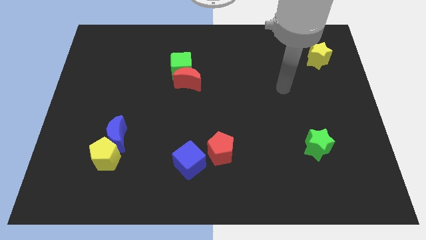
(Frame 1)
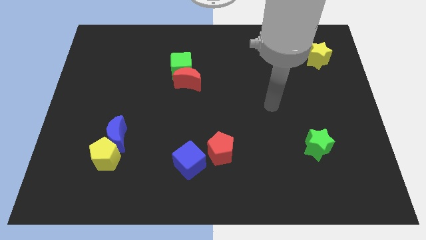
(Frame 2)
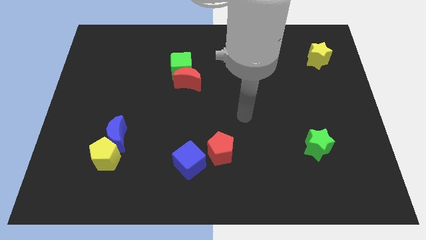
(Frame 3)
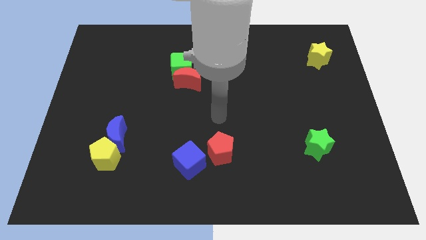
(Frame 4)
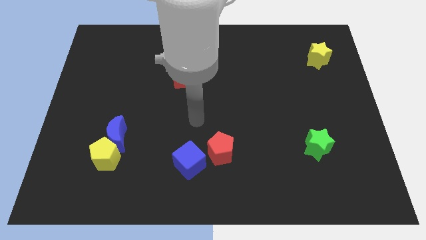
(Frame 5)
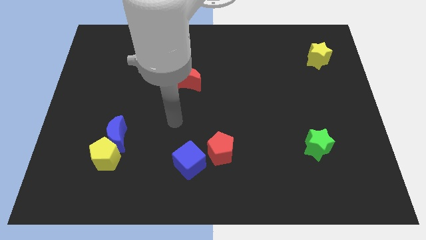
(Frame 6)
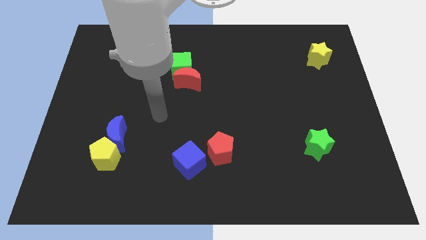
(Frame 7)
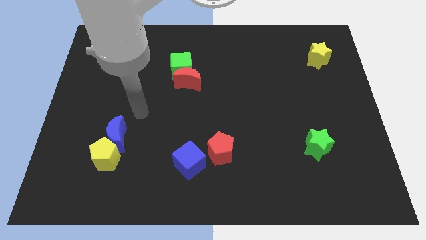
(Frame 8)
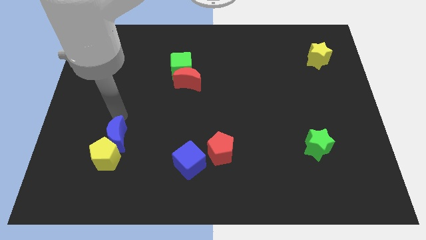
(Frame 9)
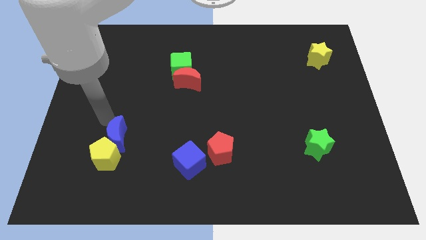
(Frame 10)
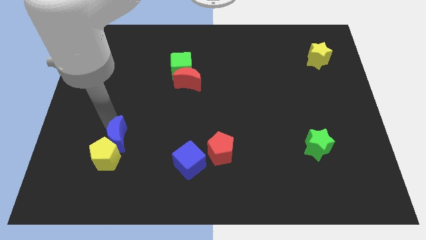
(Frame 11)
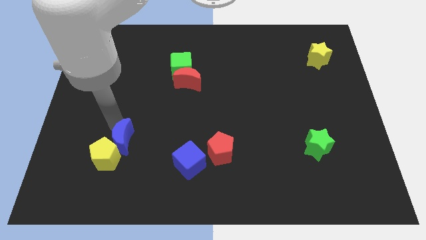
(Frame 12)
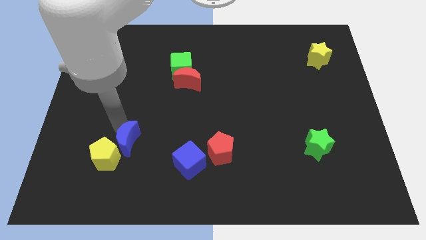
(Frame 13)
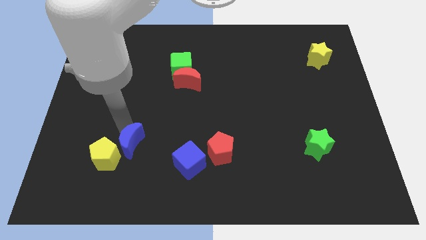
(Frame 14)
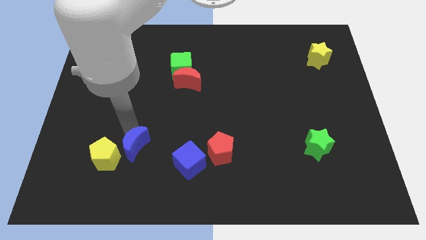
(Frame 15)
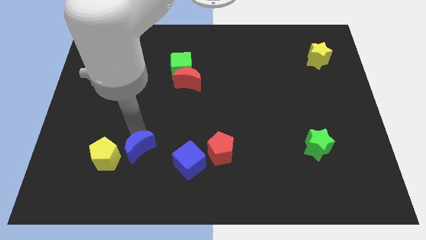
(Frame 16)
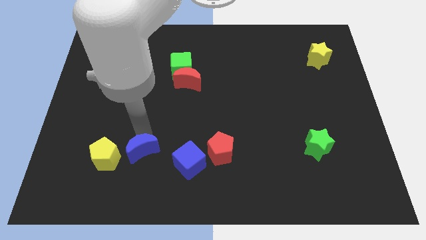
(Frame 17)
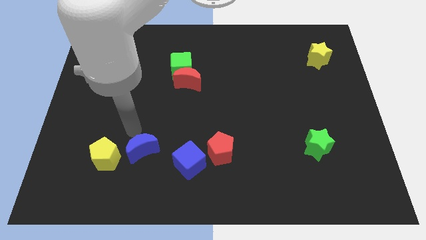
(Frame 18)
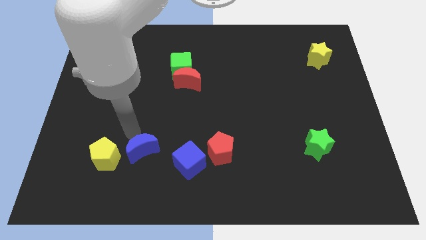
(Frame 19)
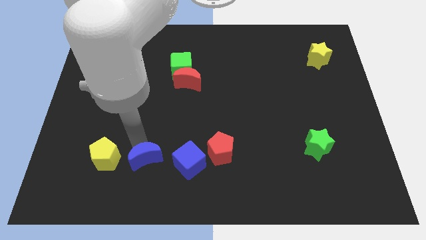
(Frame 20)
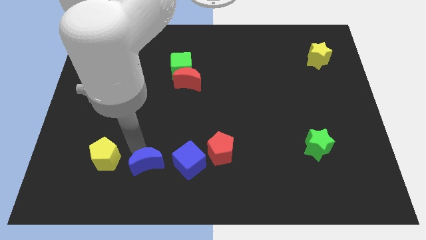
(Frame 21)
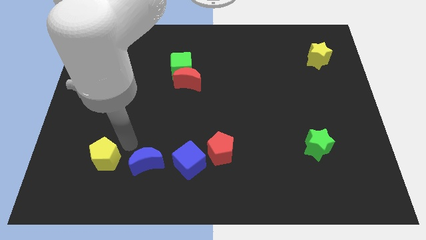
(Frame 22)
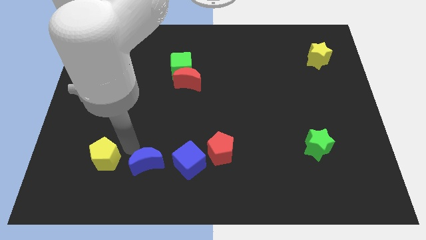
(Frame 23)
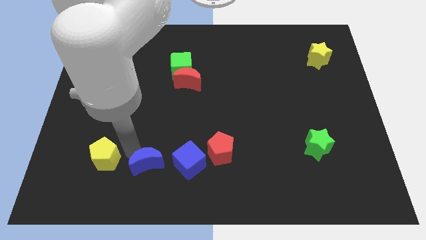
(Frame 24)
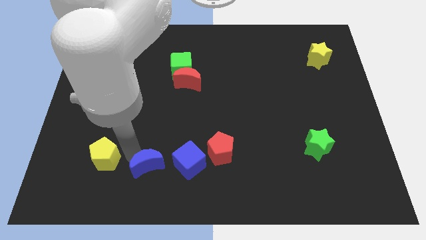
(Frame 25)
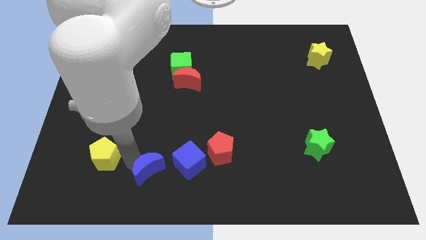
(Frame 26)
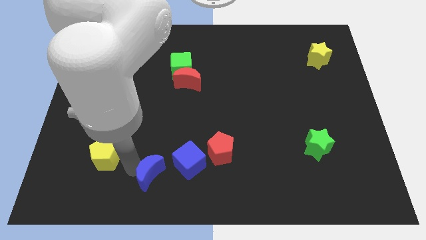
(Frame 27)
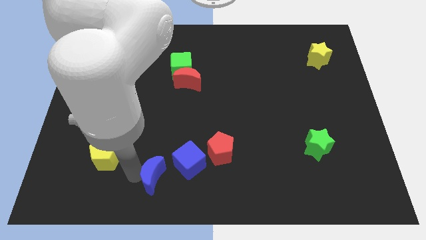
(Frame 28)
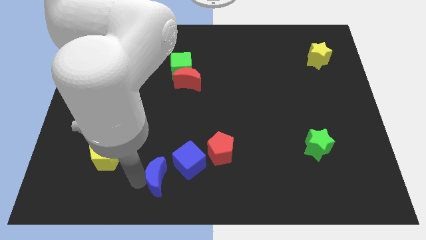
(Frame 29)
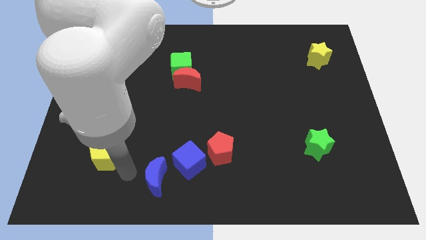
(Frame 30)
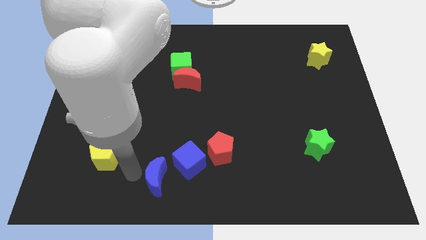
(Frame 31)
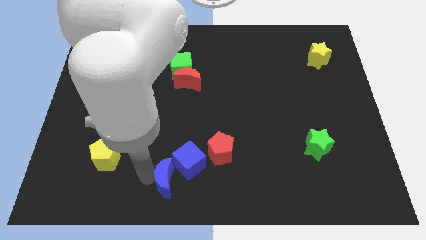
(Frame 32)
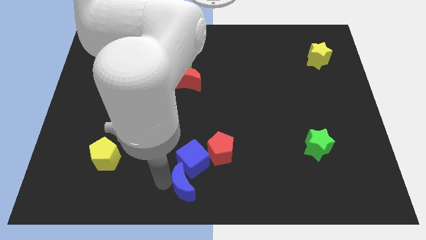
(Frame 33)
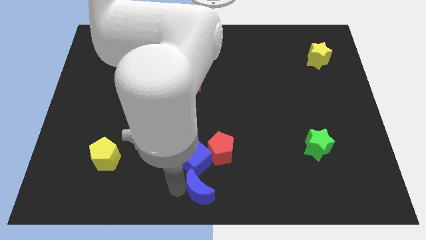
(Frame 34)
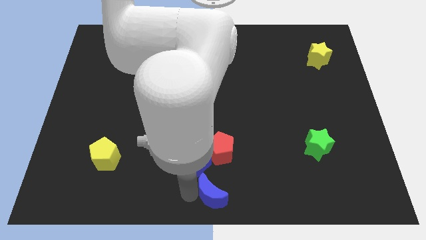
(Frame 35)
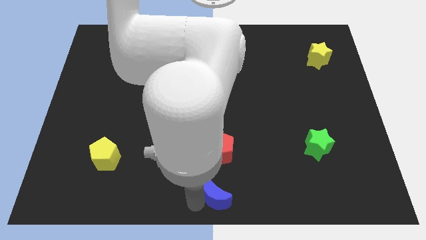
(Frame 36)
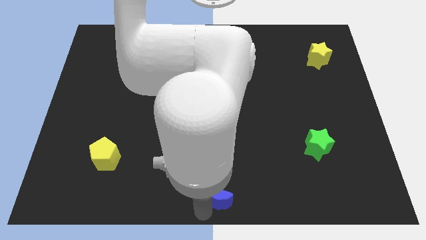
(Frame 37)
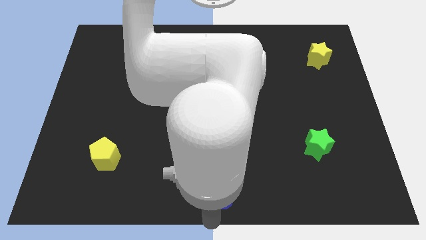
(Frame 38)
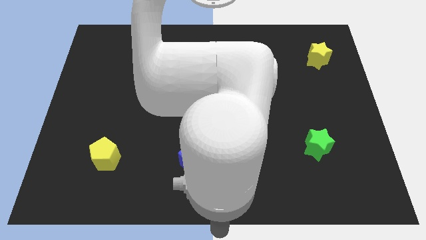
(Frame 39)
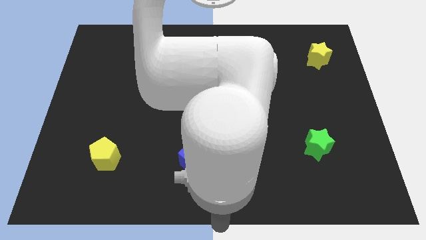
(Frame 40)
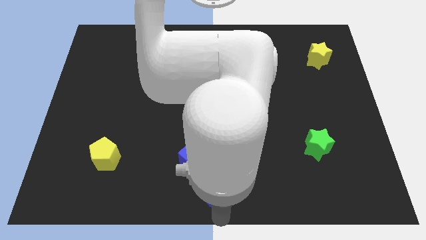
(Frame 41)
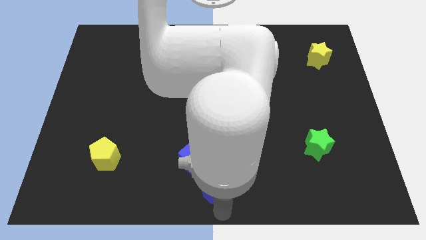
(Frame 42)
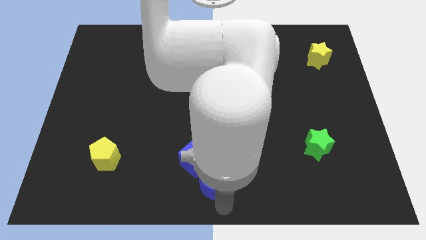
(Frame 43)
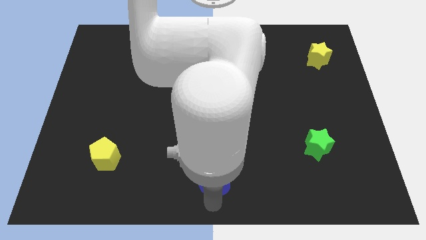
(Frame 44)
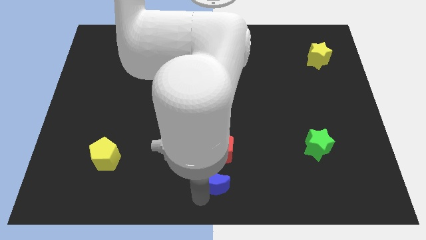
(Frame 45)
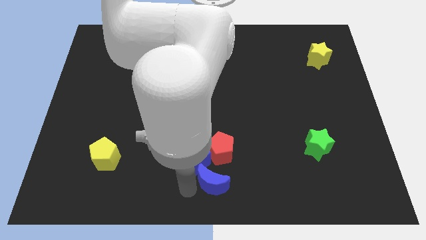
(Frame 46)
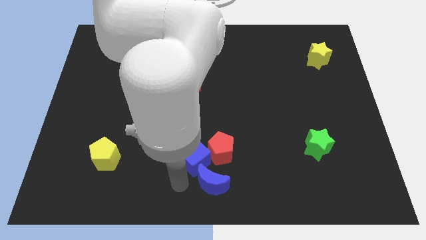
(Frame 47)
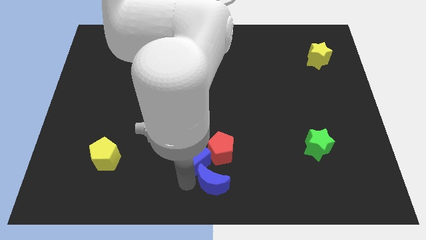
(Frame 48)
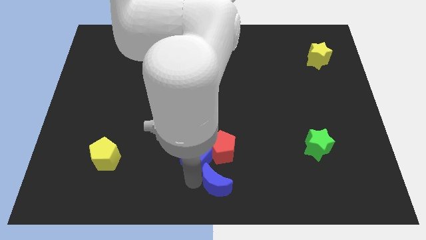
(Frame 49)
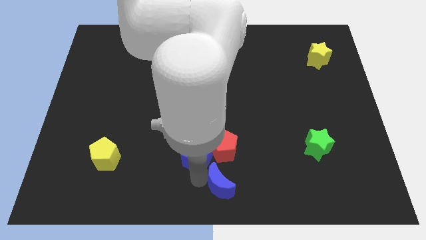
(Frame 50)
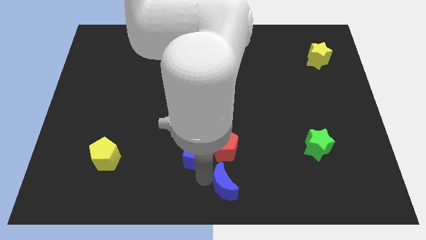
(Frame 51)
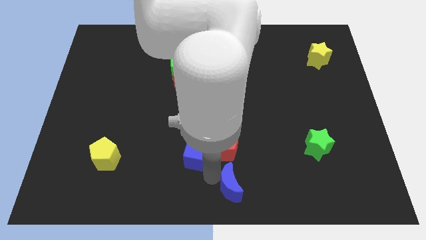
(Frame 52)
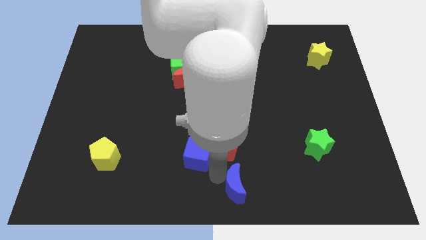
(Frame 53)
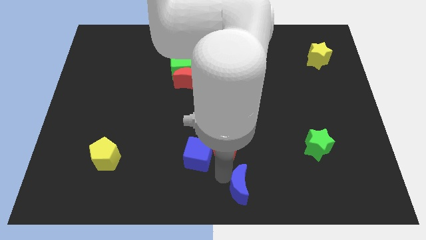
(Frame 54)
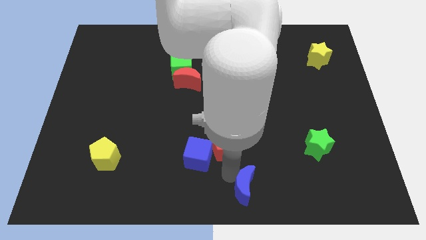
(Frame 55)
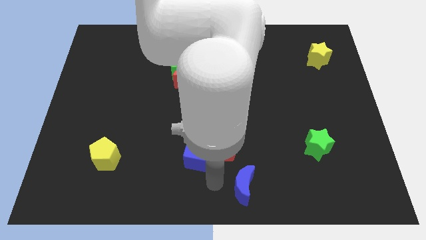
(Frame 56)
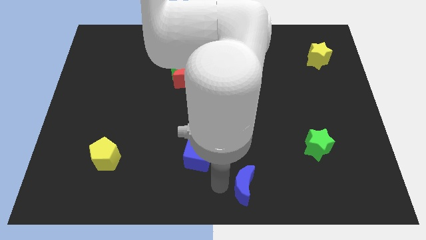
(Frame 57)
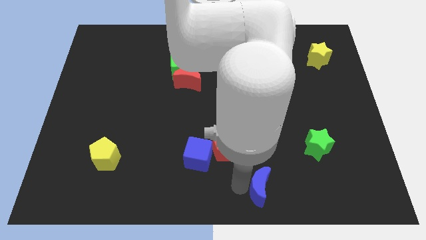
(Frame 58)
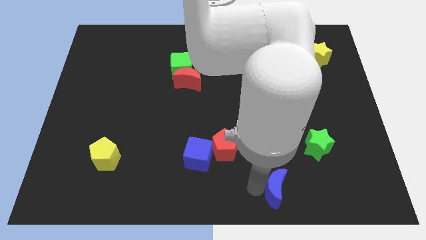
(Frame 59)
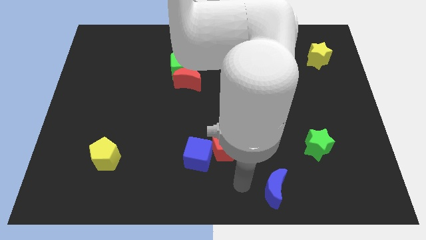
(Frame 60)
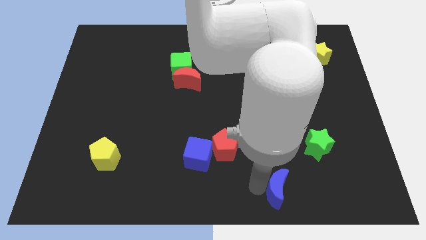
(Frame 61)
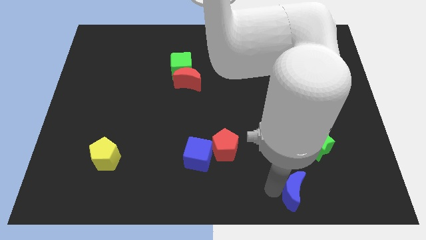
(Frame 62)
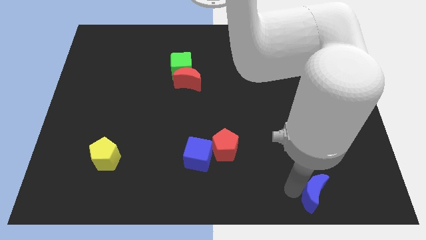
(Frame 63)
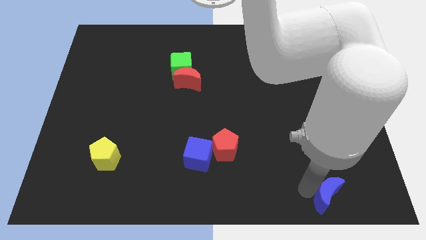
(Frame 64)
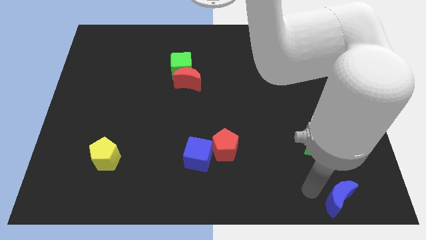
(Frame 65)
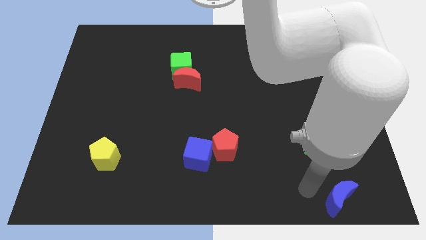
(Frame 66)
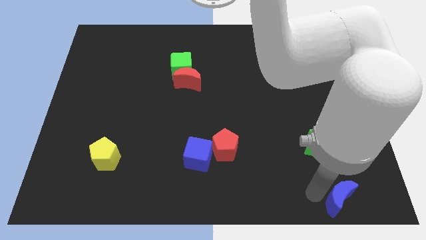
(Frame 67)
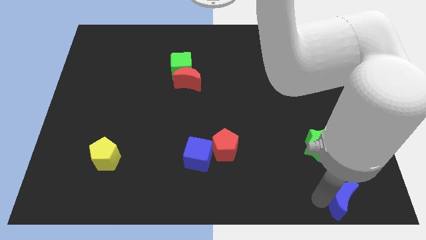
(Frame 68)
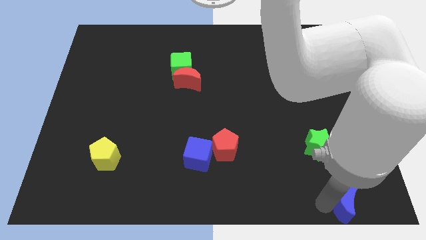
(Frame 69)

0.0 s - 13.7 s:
slide the blue moon to the bottom right corner
